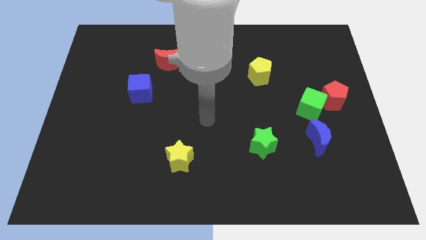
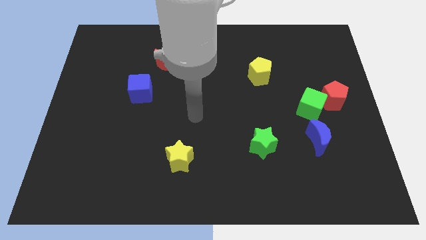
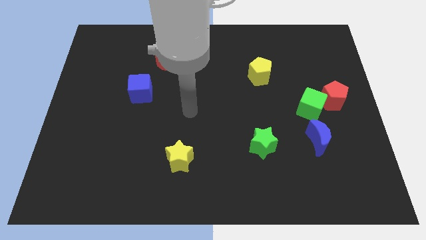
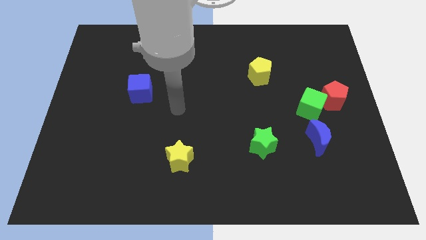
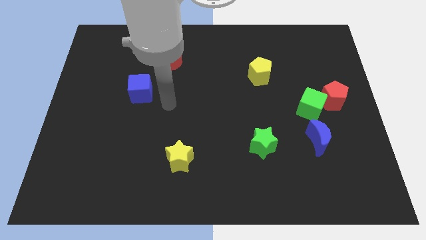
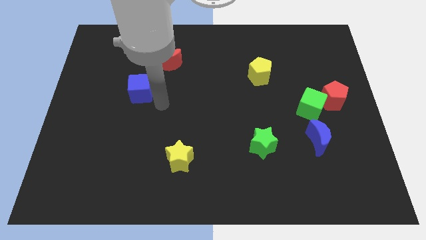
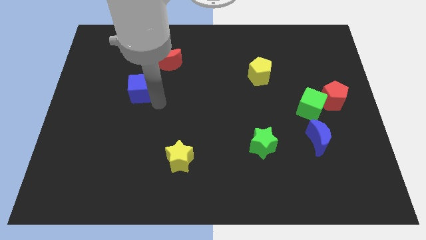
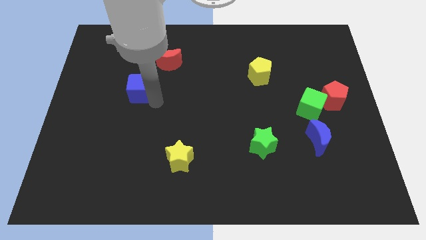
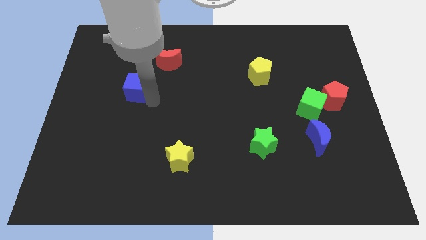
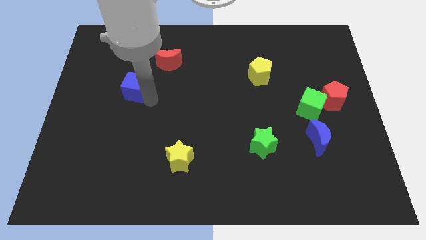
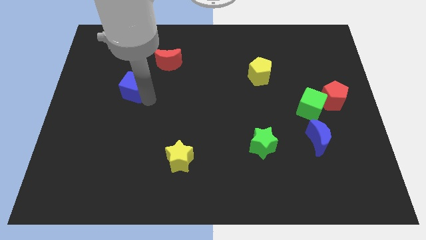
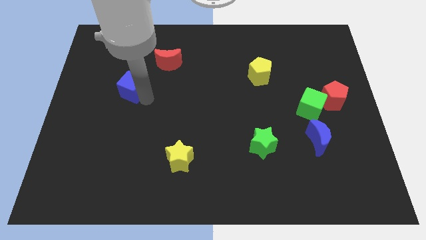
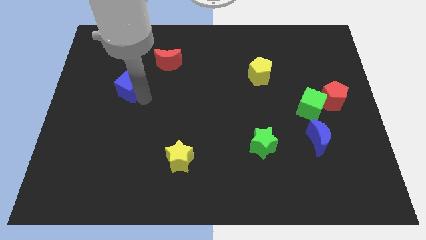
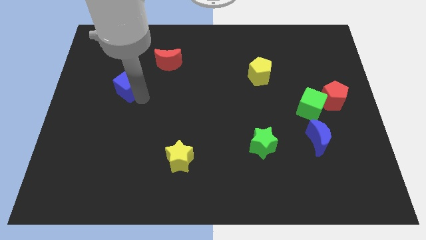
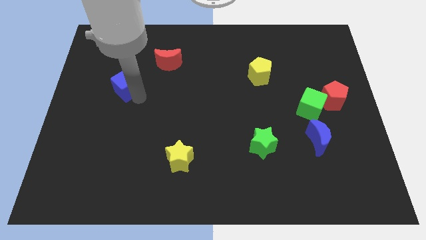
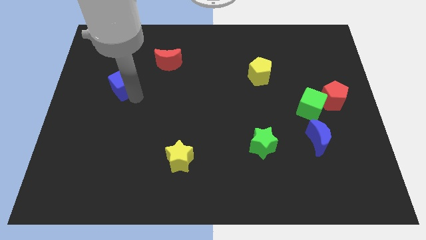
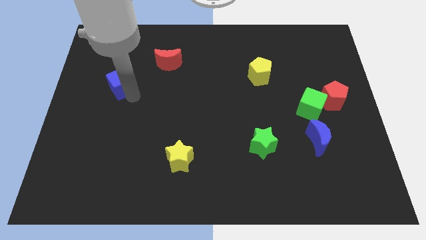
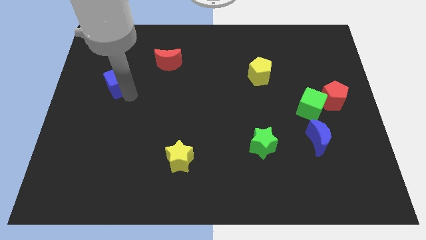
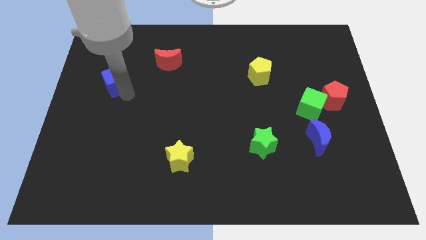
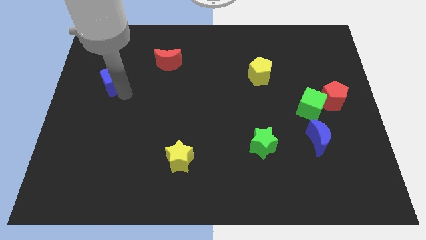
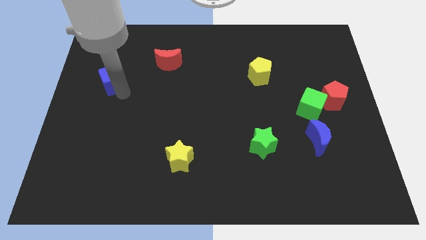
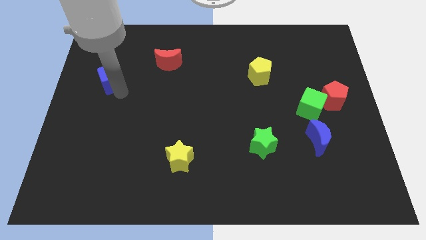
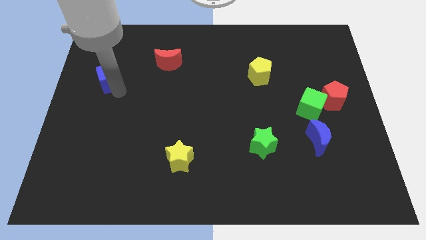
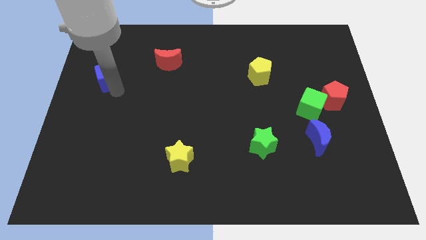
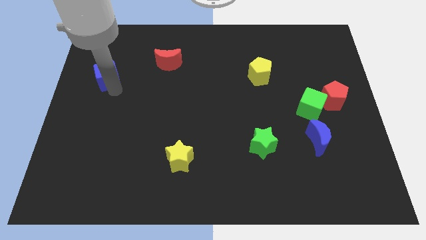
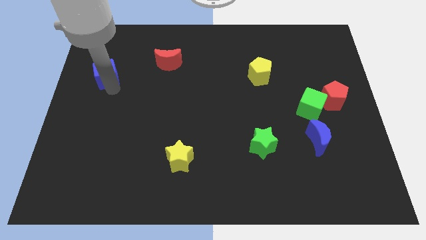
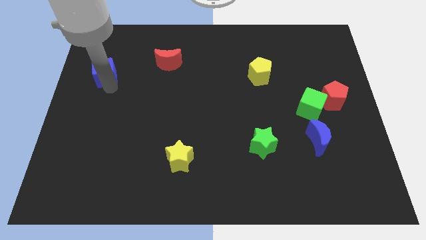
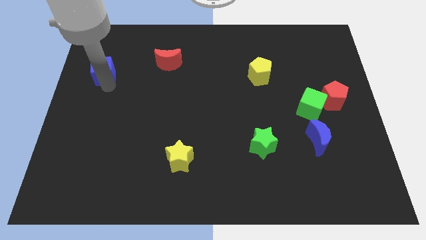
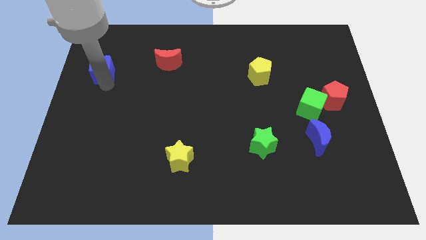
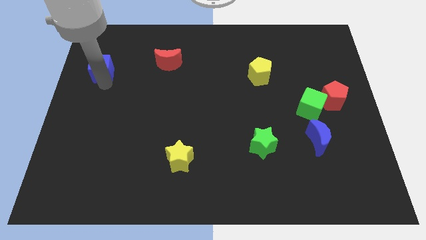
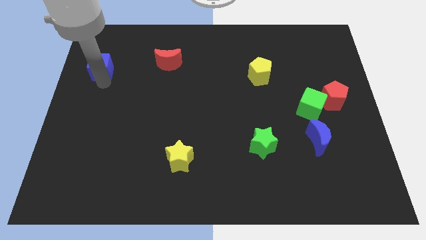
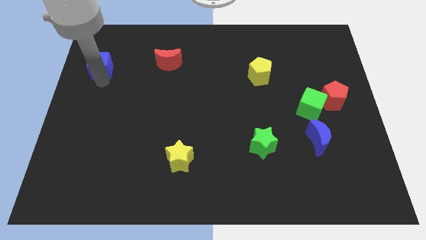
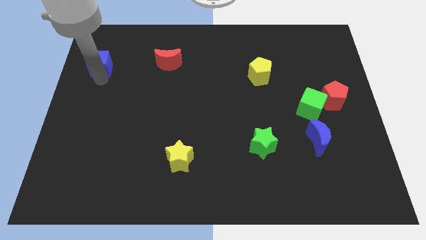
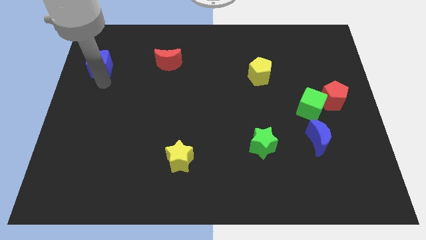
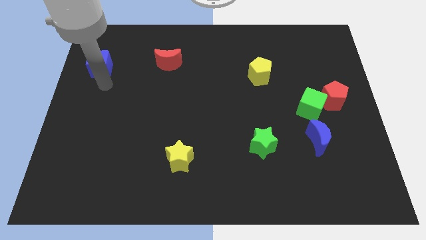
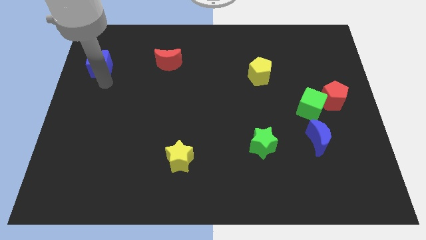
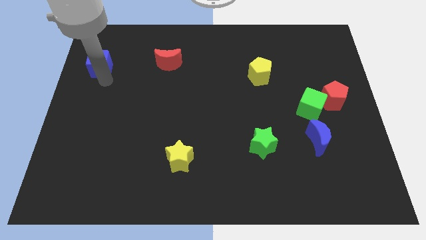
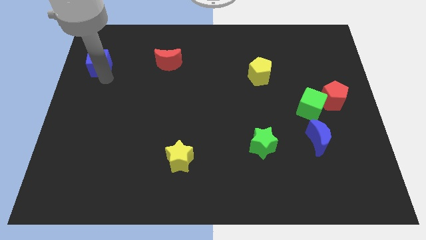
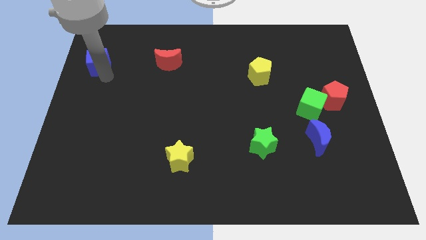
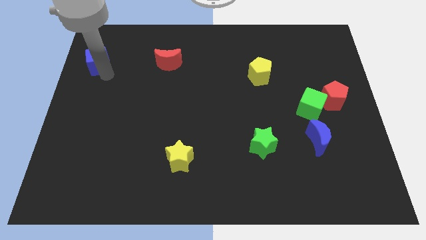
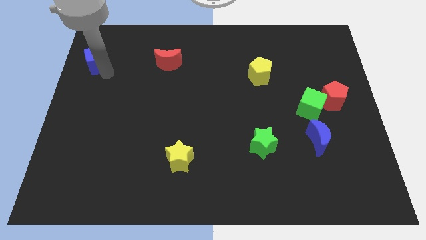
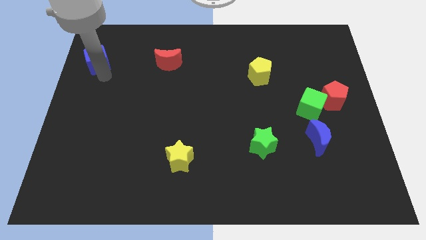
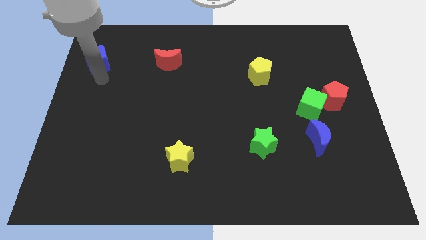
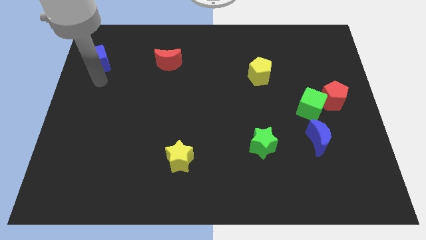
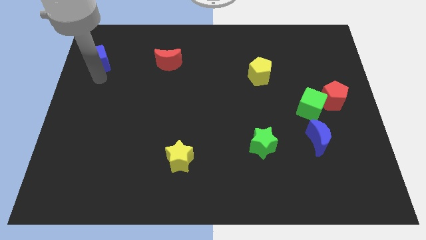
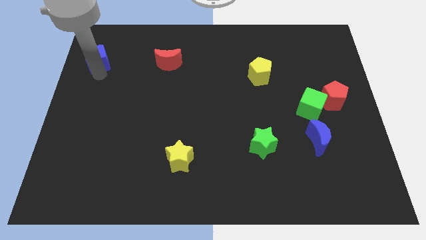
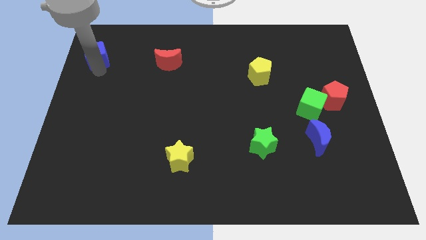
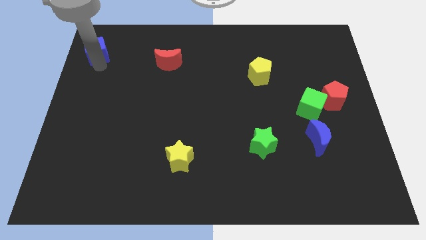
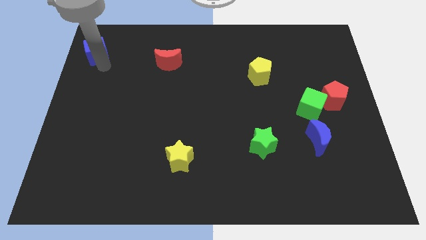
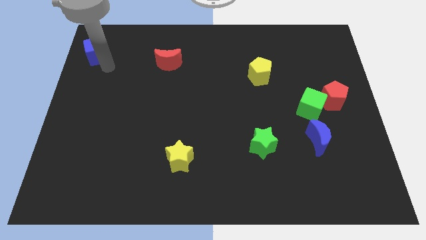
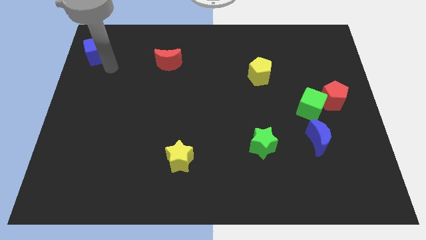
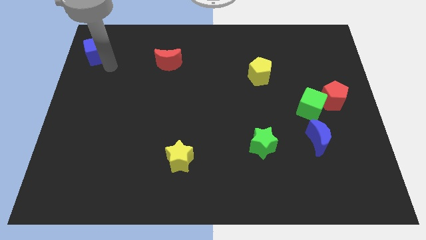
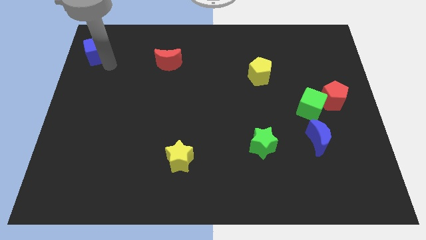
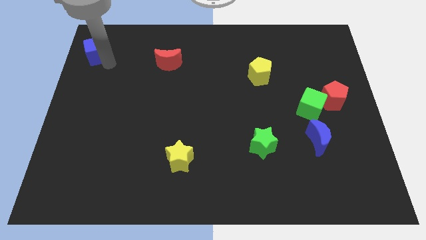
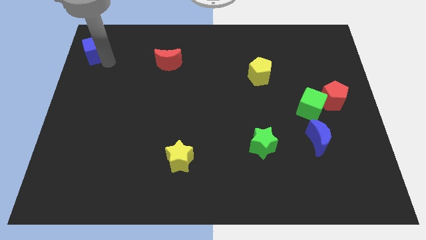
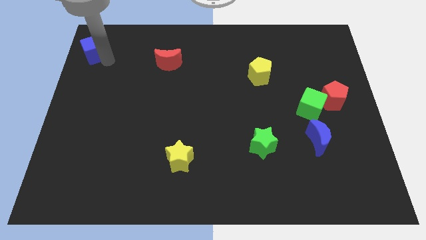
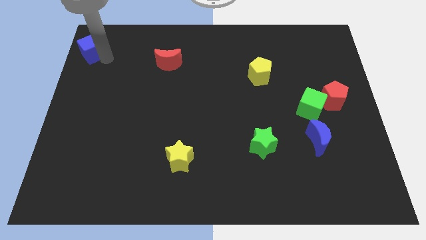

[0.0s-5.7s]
slide the blue cube to the top left corner

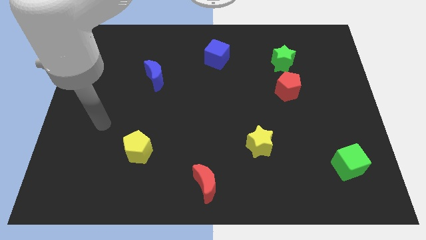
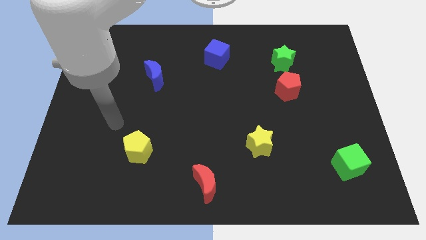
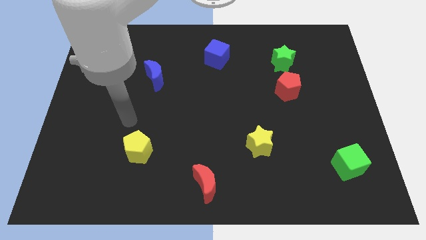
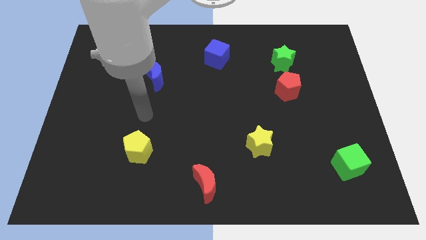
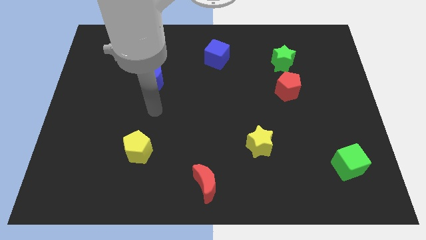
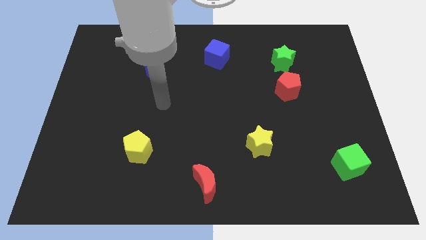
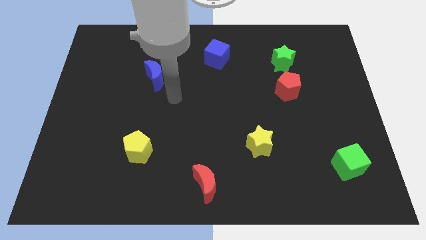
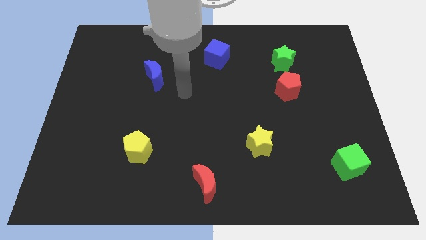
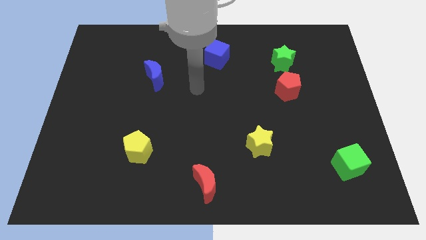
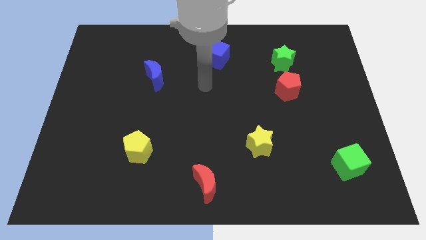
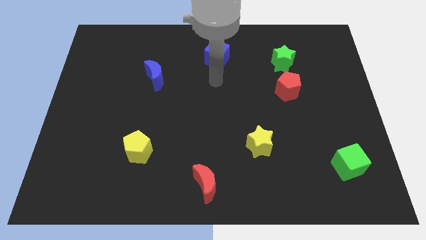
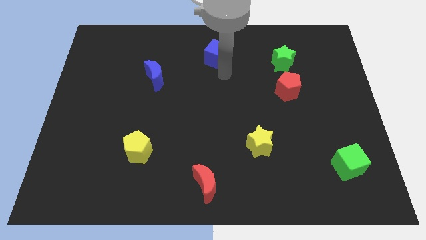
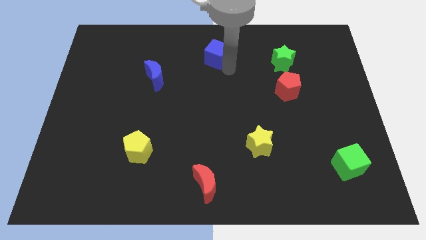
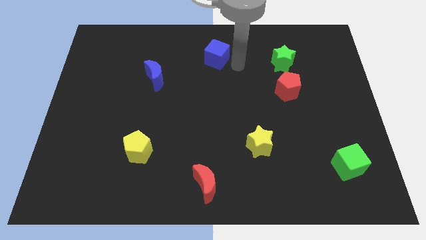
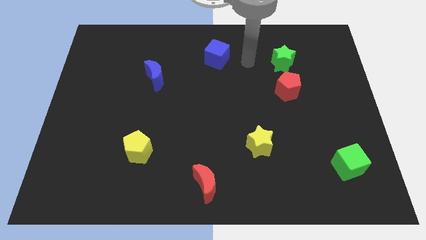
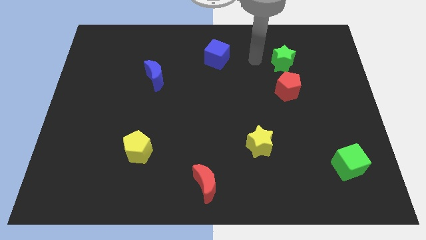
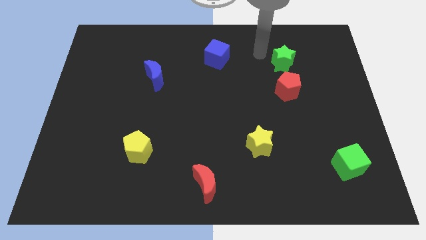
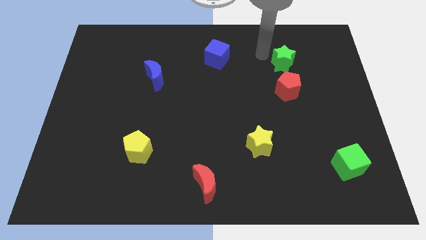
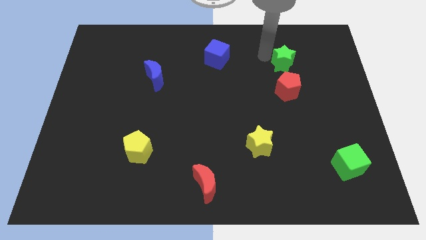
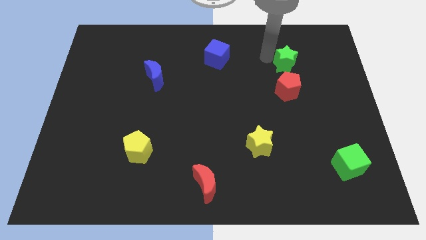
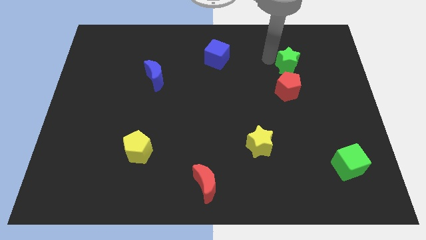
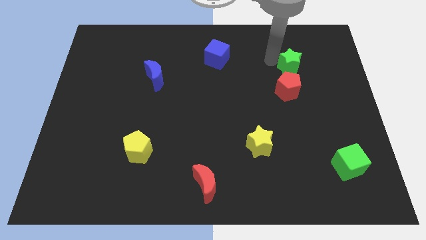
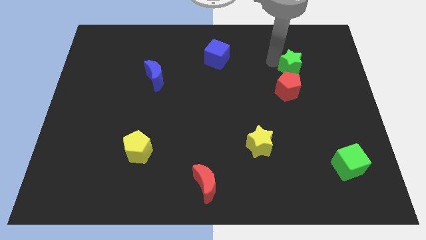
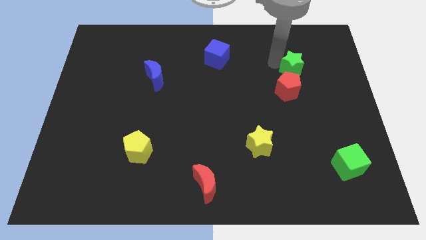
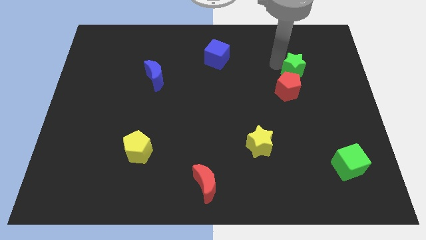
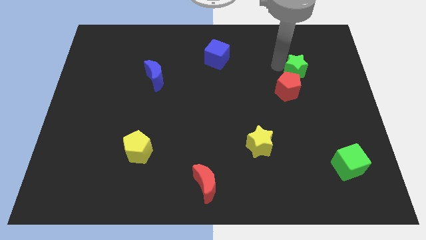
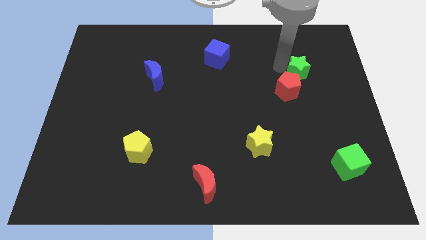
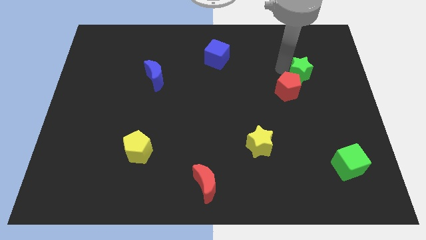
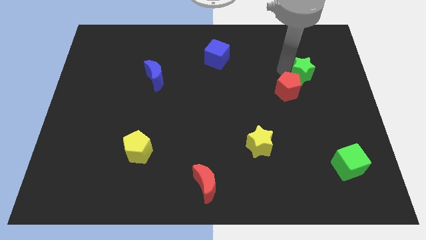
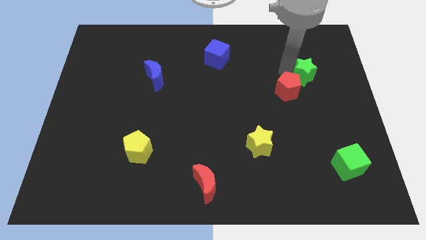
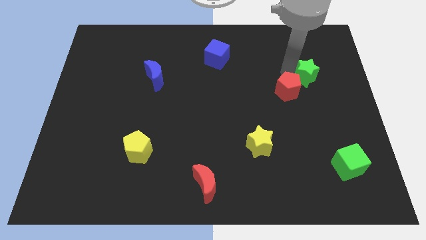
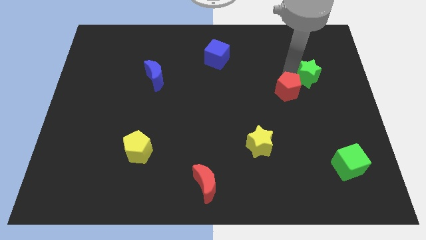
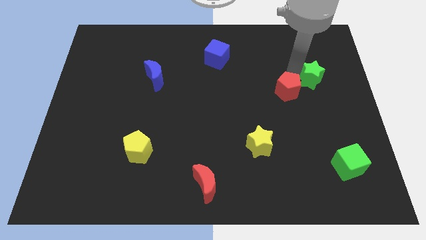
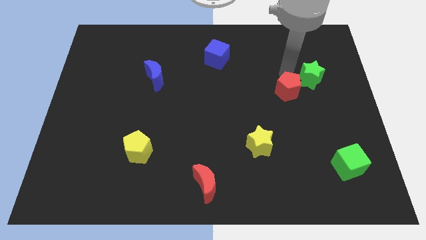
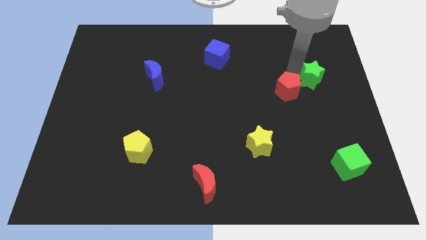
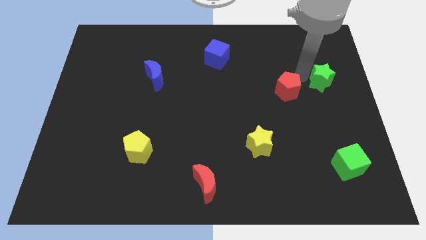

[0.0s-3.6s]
push the green star to the right side of the board
